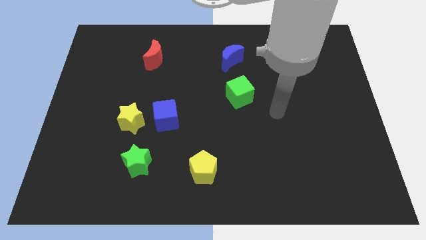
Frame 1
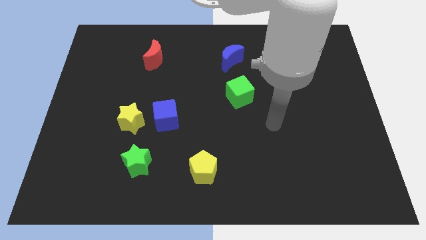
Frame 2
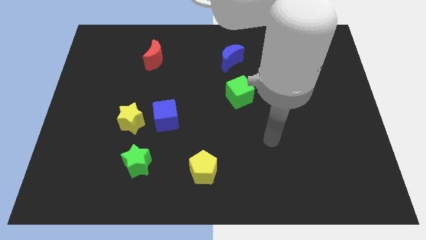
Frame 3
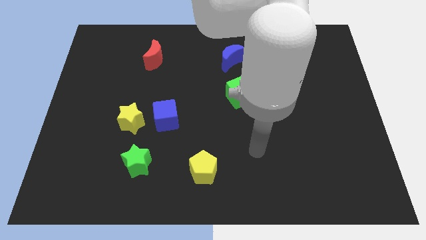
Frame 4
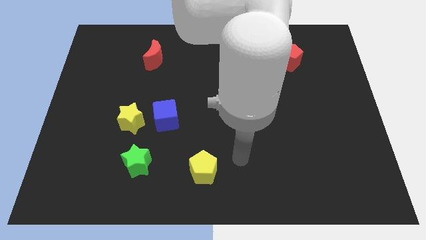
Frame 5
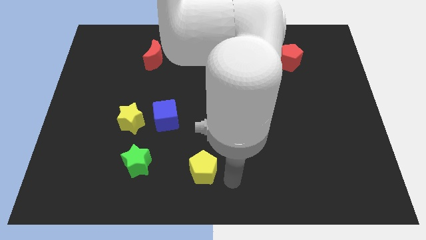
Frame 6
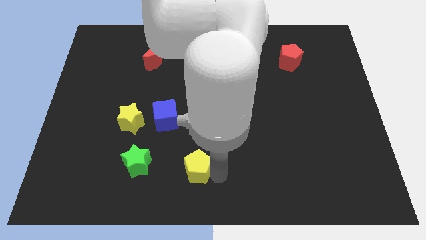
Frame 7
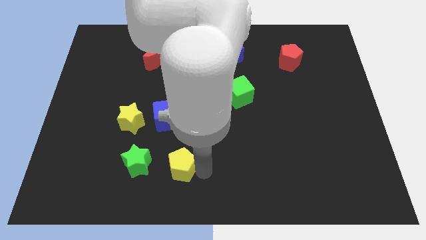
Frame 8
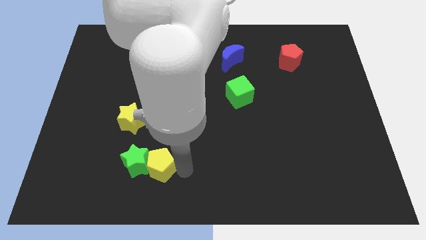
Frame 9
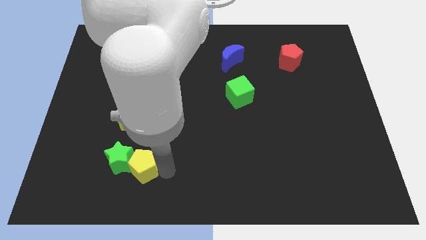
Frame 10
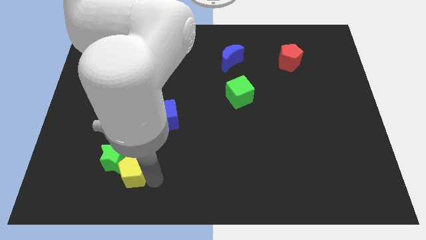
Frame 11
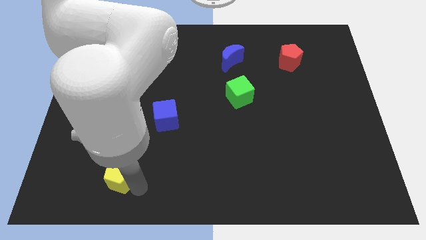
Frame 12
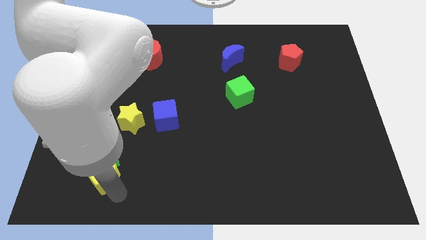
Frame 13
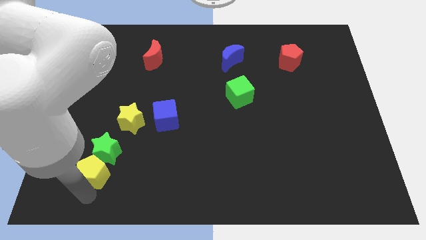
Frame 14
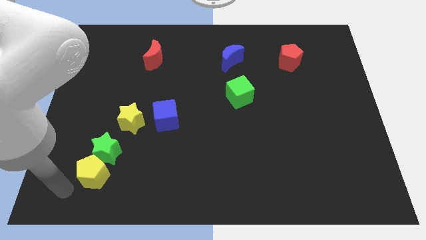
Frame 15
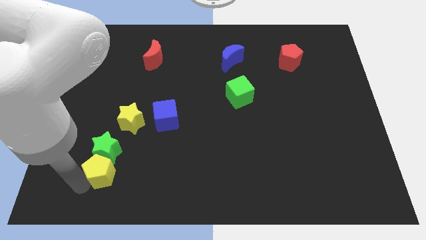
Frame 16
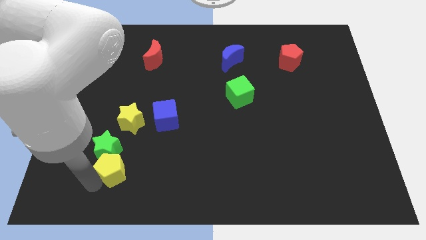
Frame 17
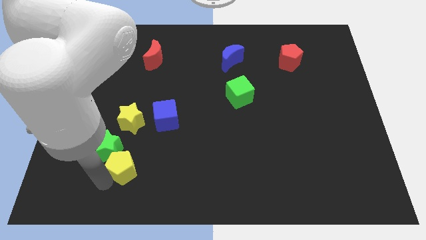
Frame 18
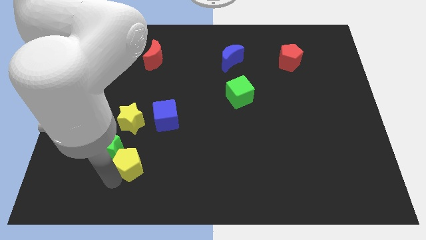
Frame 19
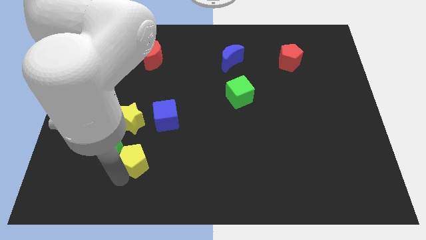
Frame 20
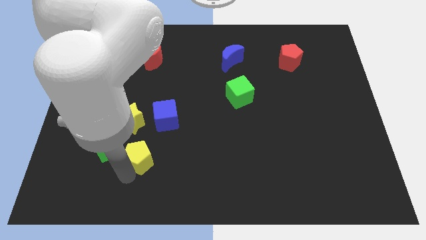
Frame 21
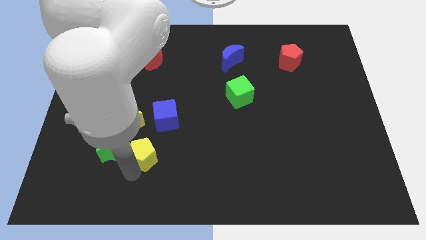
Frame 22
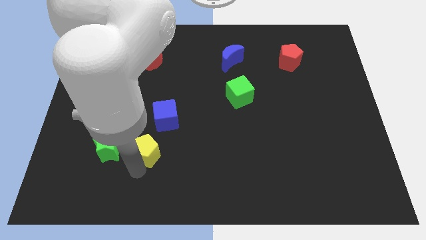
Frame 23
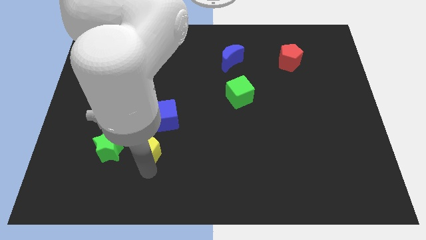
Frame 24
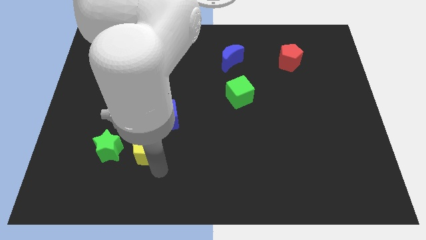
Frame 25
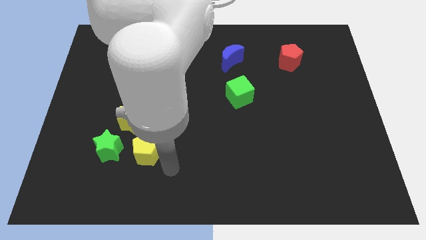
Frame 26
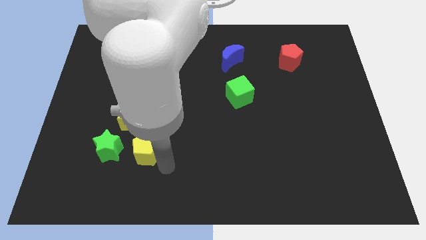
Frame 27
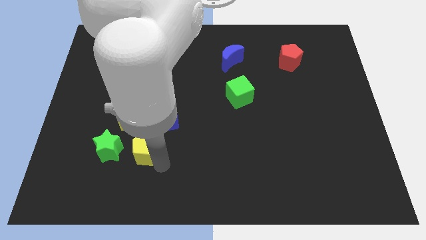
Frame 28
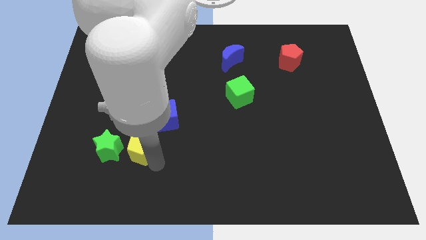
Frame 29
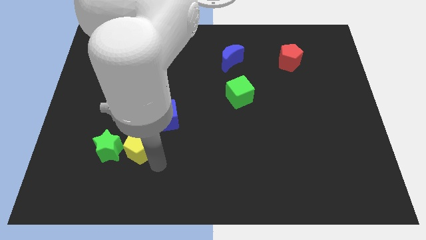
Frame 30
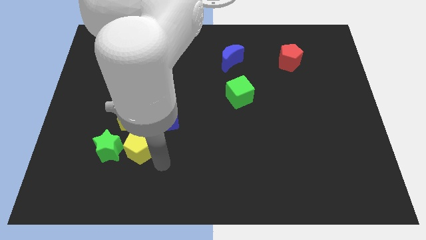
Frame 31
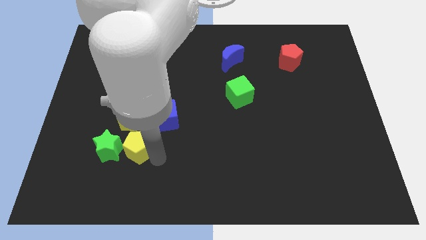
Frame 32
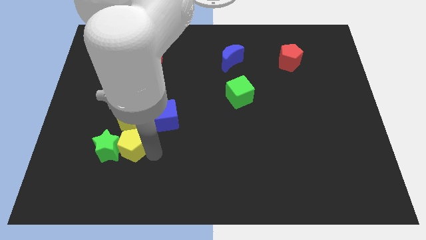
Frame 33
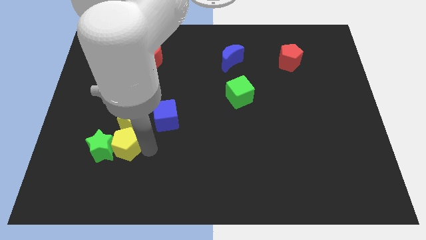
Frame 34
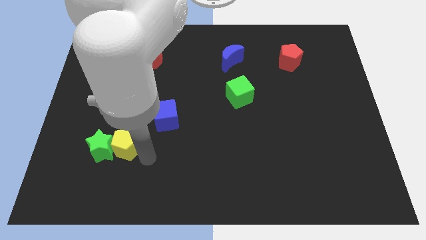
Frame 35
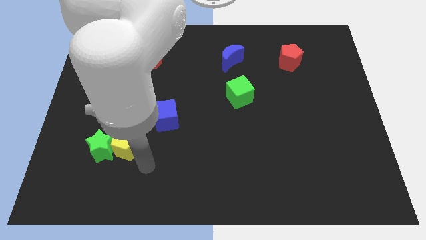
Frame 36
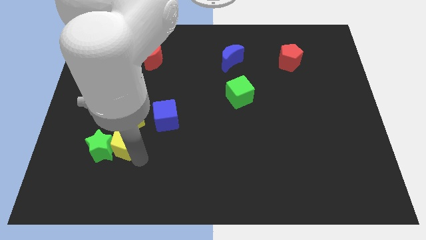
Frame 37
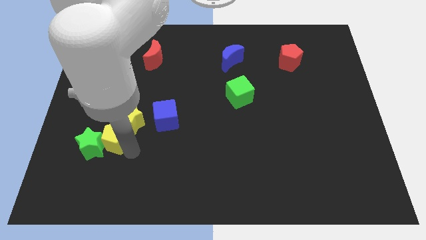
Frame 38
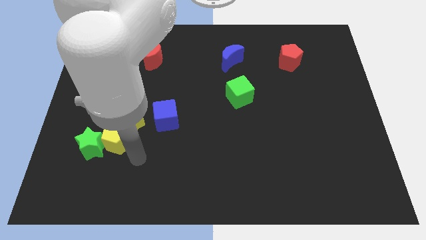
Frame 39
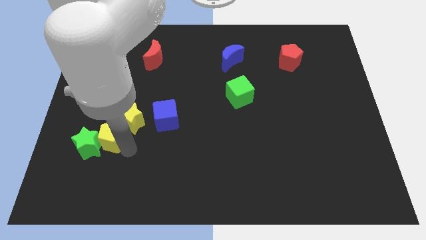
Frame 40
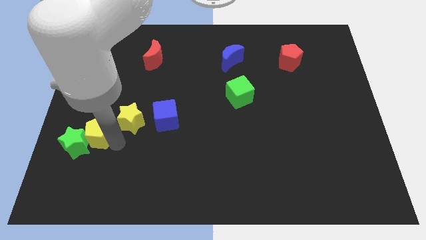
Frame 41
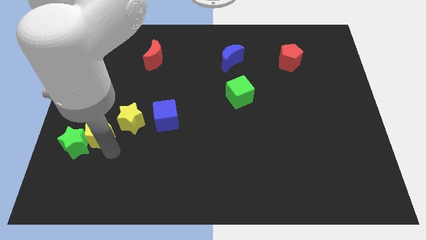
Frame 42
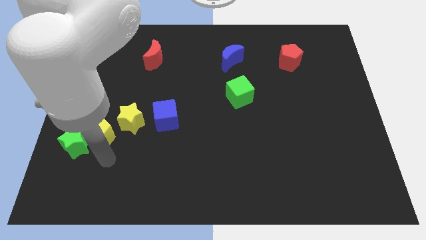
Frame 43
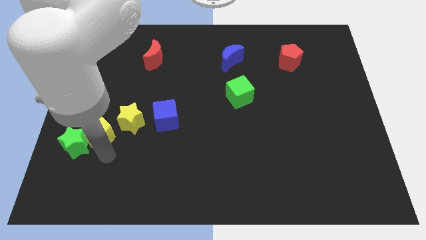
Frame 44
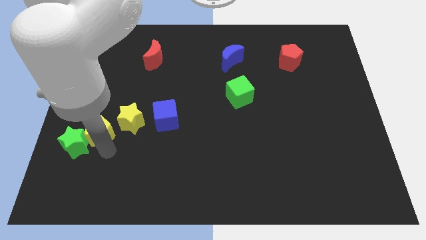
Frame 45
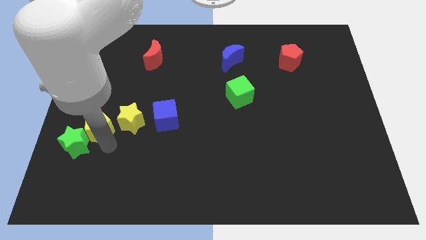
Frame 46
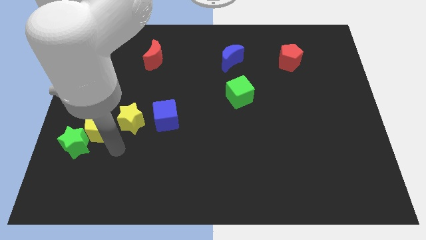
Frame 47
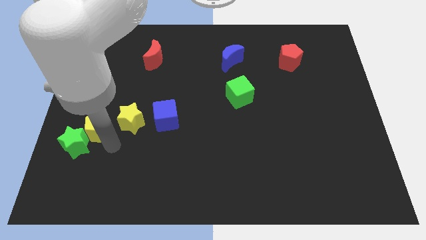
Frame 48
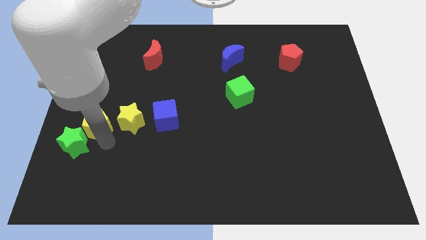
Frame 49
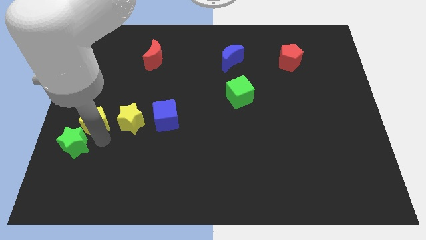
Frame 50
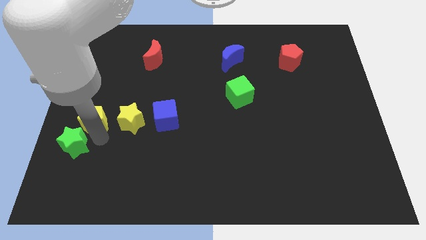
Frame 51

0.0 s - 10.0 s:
push the yellow pentagon to the left side of the board

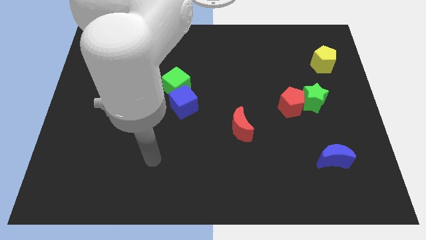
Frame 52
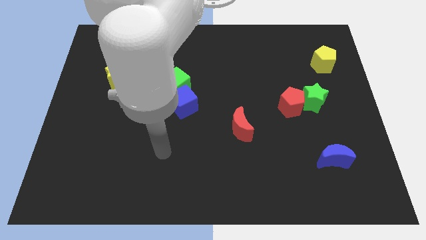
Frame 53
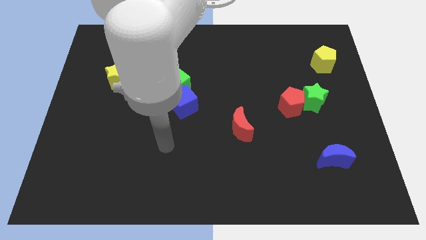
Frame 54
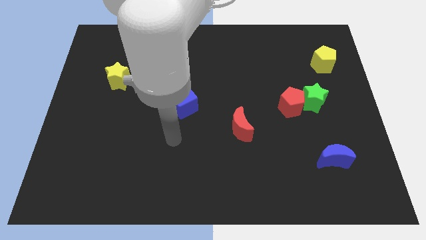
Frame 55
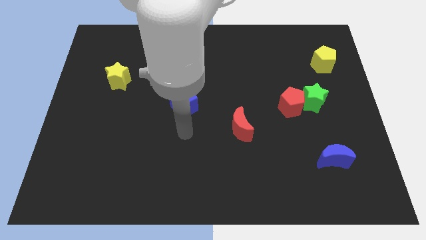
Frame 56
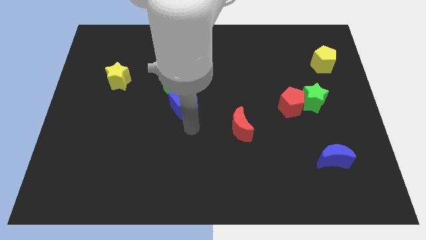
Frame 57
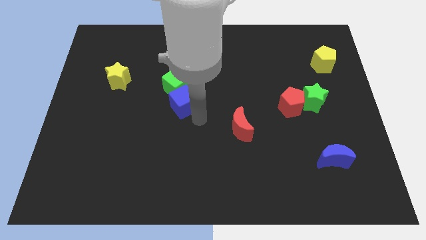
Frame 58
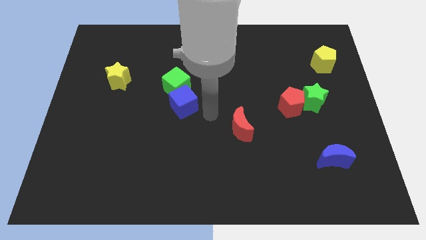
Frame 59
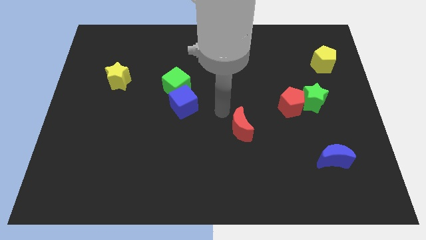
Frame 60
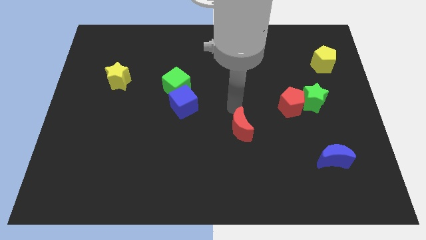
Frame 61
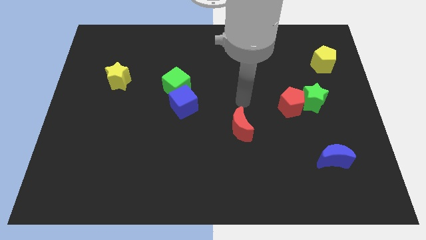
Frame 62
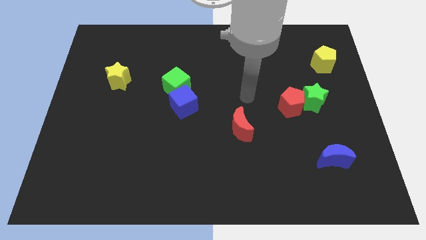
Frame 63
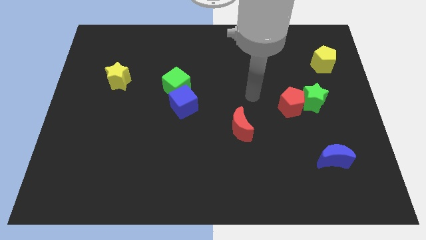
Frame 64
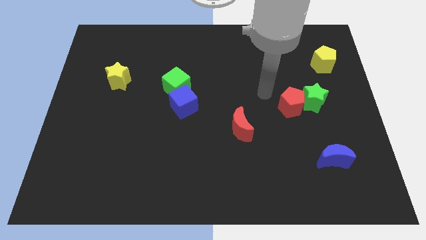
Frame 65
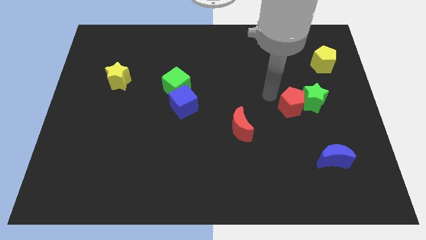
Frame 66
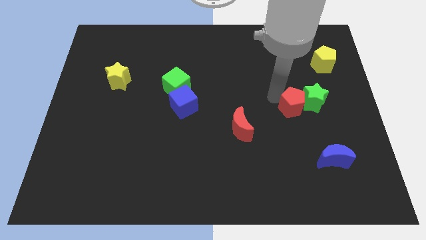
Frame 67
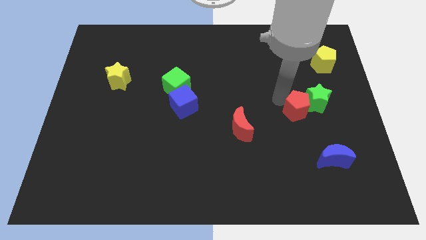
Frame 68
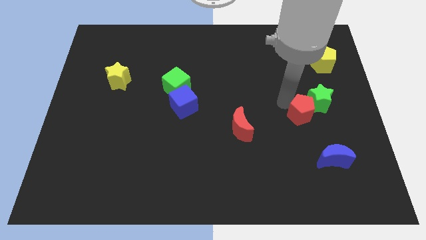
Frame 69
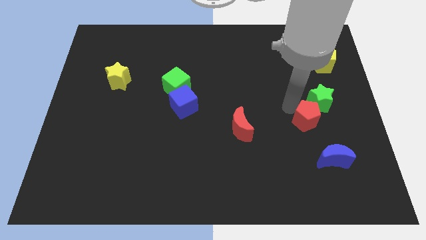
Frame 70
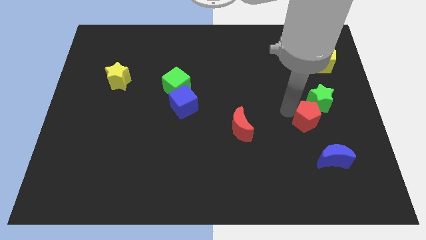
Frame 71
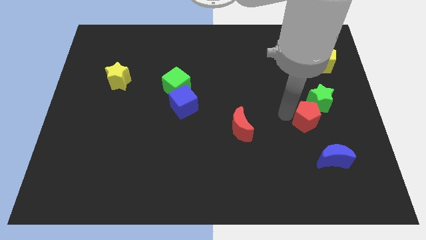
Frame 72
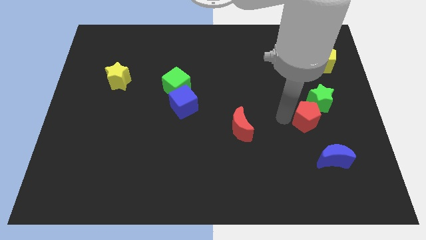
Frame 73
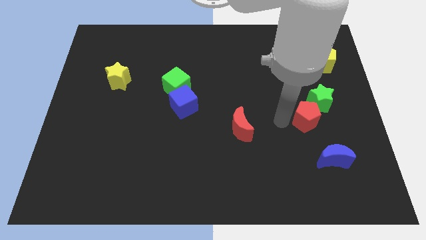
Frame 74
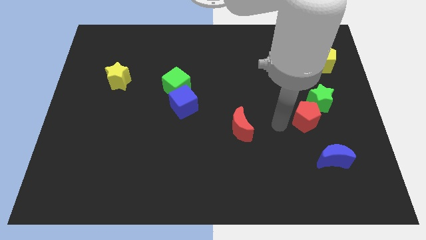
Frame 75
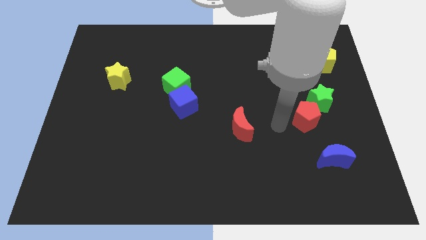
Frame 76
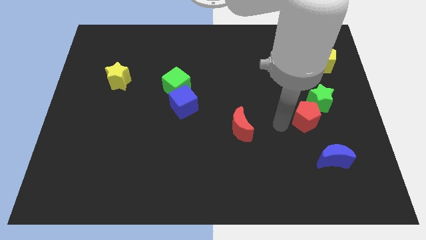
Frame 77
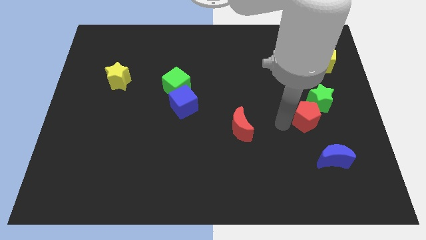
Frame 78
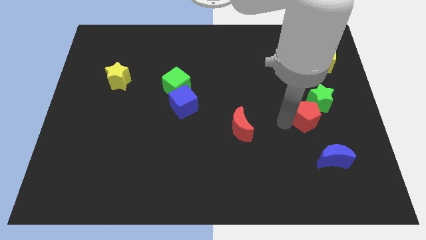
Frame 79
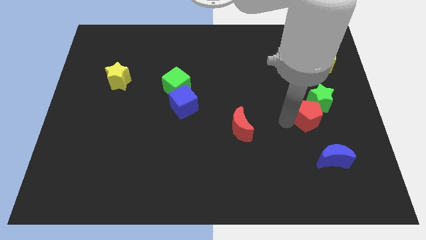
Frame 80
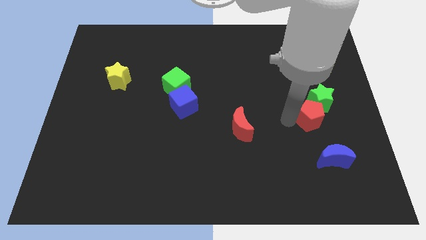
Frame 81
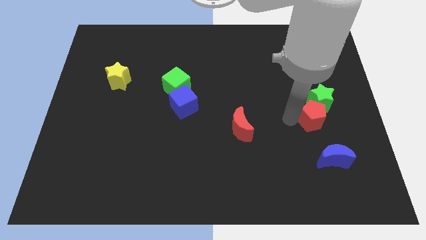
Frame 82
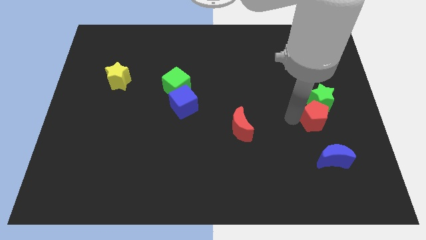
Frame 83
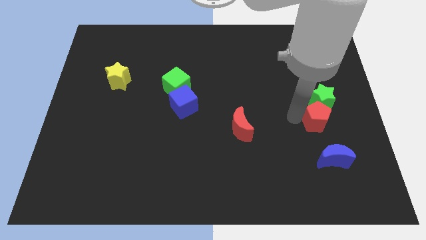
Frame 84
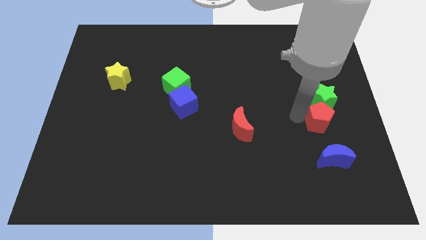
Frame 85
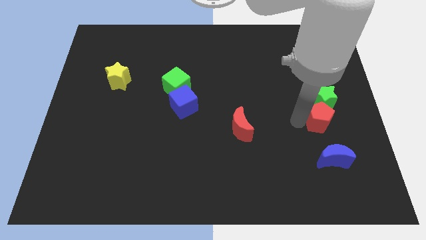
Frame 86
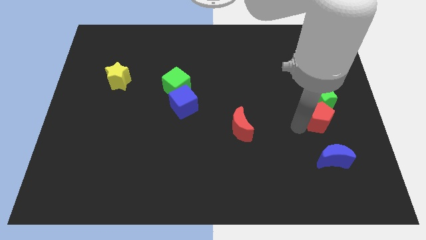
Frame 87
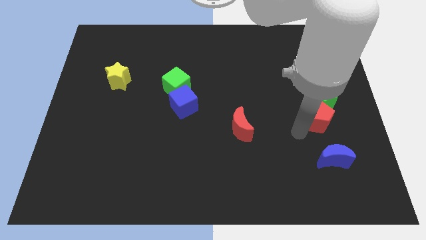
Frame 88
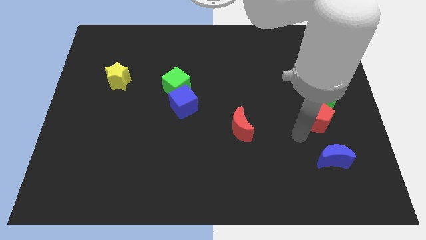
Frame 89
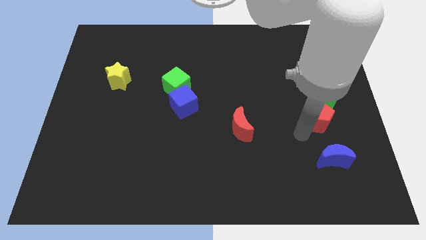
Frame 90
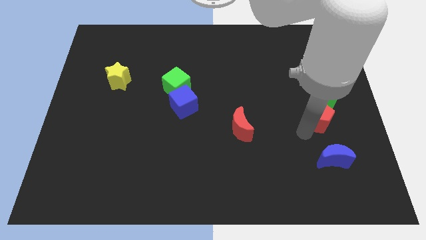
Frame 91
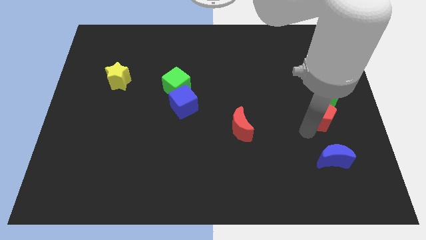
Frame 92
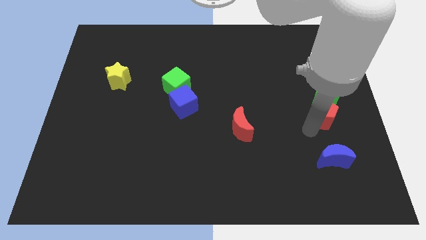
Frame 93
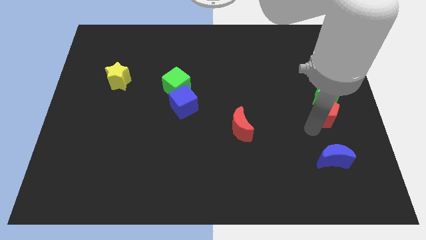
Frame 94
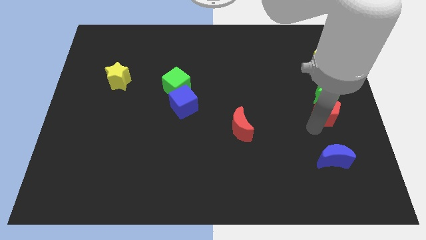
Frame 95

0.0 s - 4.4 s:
move the red pentagon to the right side
